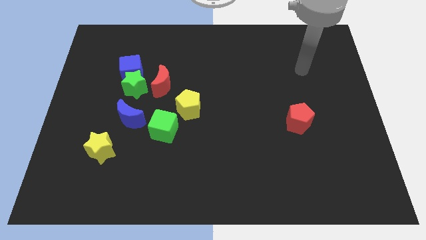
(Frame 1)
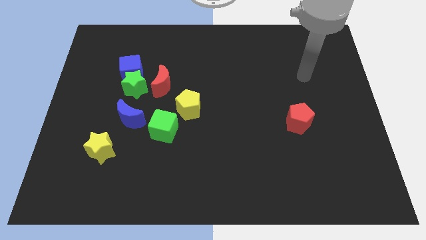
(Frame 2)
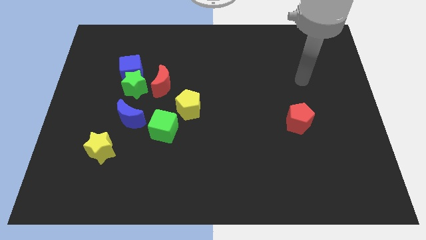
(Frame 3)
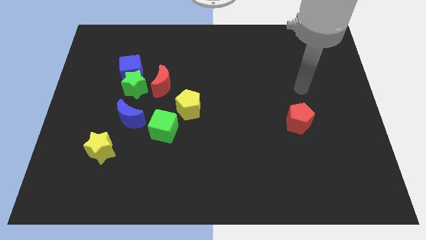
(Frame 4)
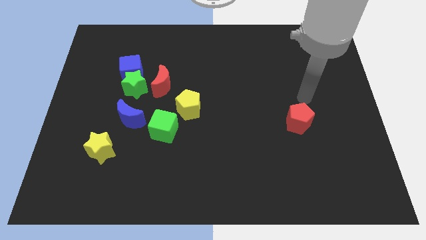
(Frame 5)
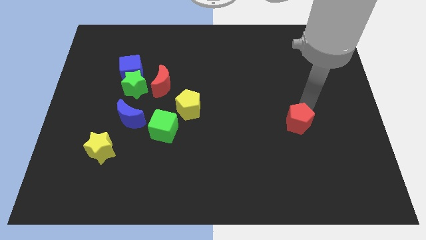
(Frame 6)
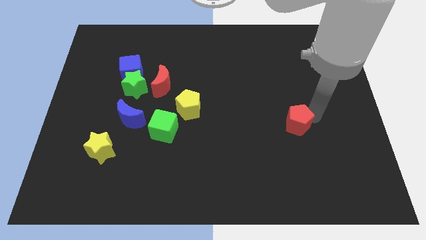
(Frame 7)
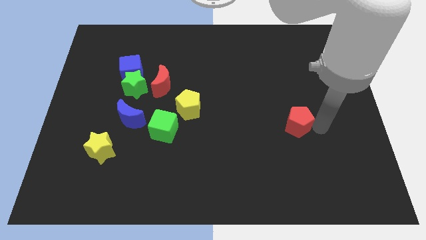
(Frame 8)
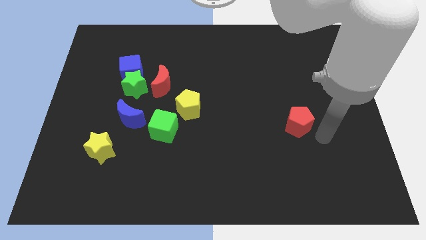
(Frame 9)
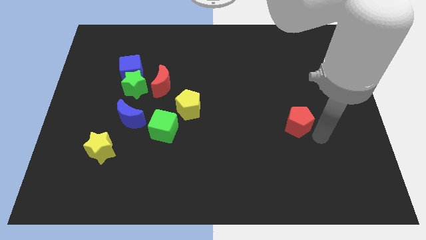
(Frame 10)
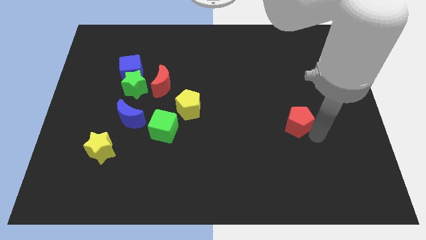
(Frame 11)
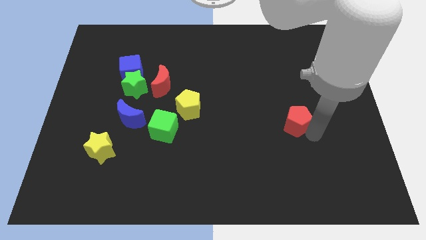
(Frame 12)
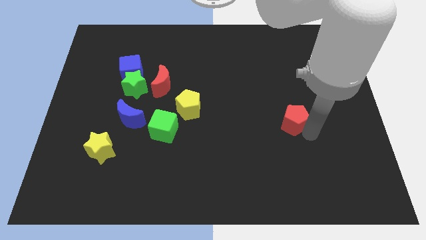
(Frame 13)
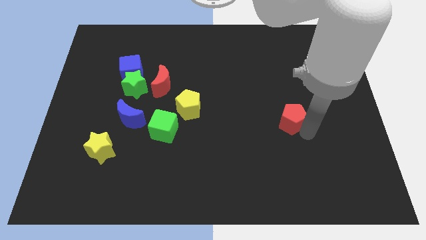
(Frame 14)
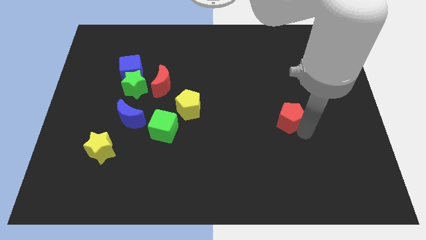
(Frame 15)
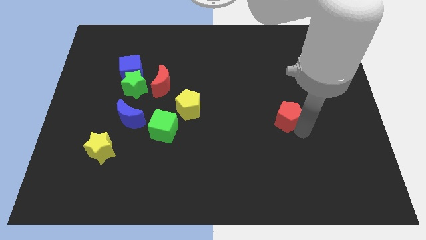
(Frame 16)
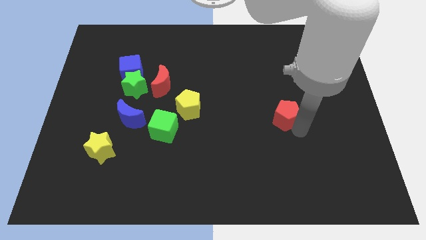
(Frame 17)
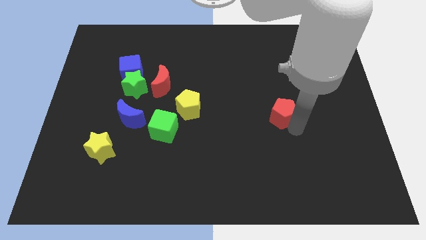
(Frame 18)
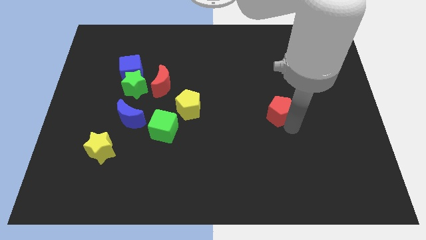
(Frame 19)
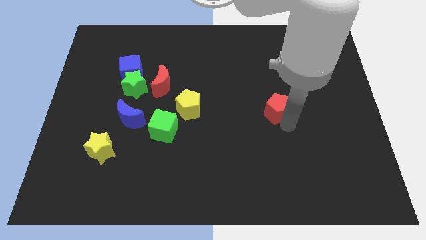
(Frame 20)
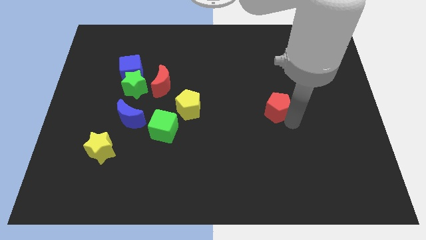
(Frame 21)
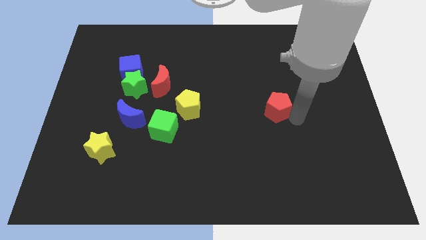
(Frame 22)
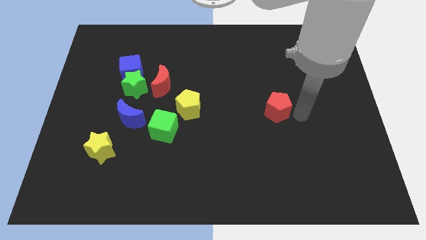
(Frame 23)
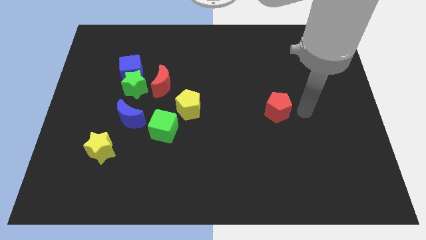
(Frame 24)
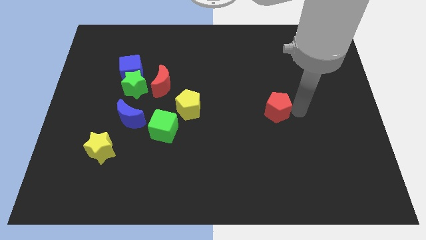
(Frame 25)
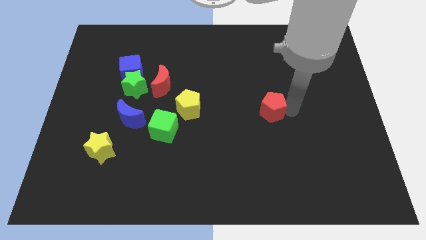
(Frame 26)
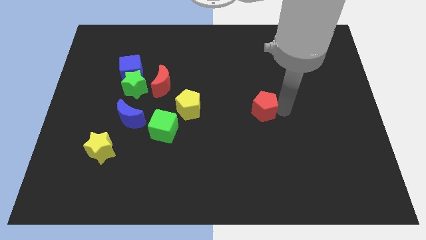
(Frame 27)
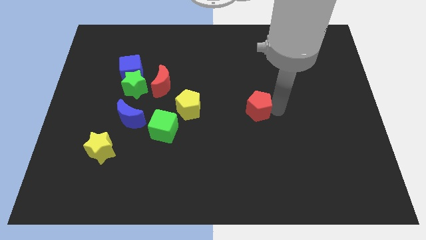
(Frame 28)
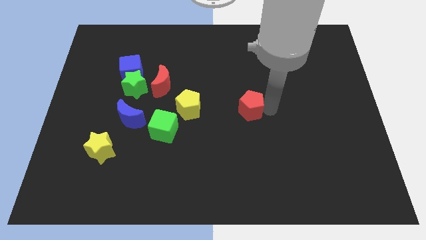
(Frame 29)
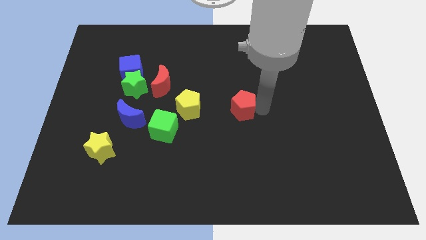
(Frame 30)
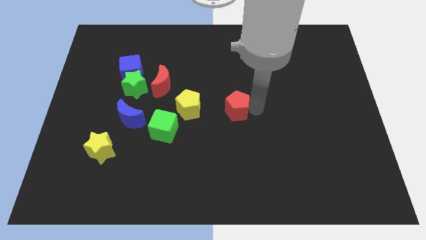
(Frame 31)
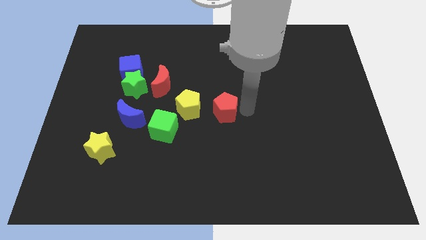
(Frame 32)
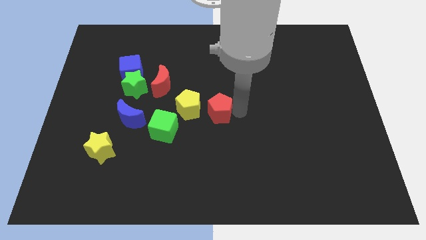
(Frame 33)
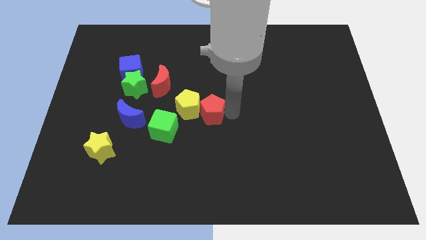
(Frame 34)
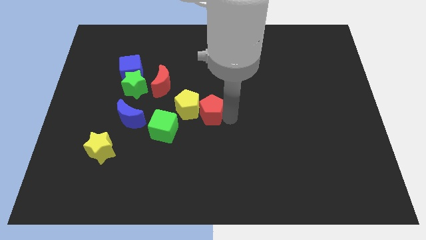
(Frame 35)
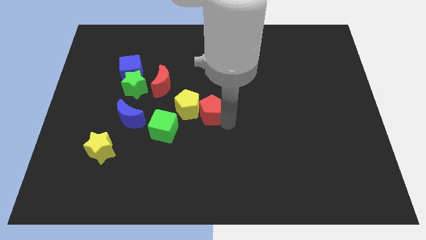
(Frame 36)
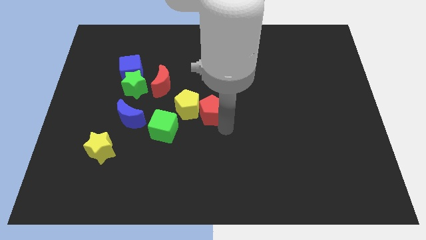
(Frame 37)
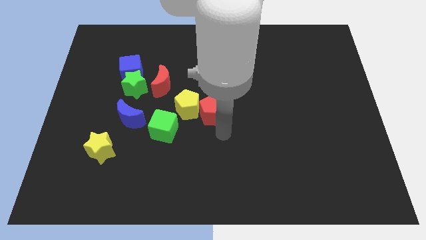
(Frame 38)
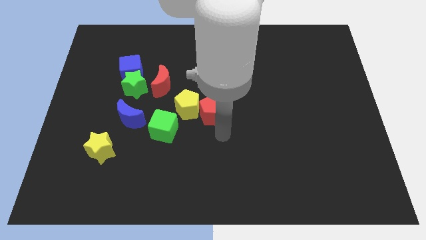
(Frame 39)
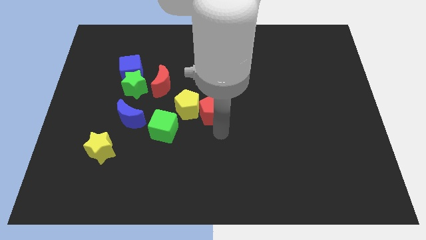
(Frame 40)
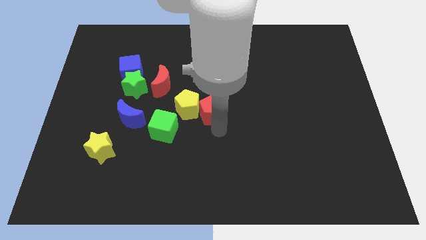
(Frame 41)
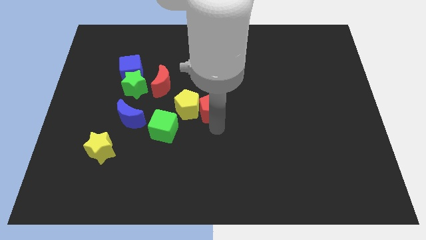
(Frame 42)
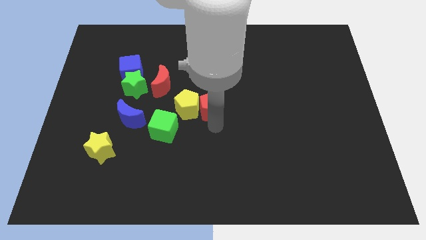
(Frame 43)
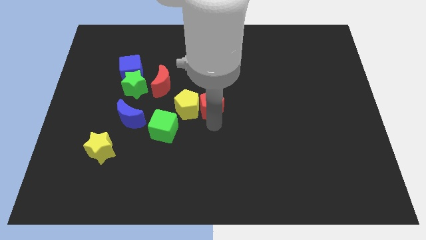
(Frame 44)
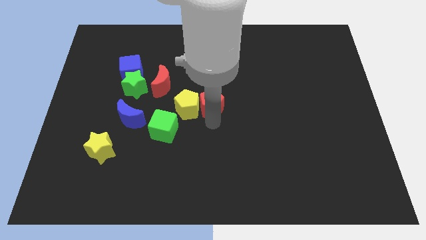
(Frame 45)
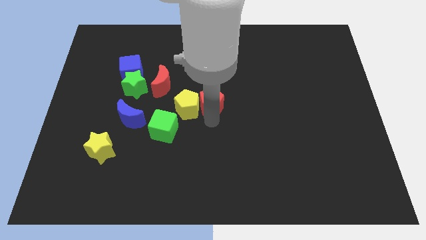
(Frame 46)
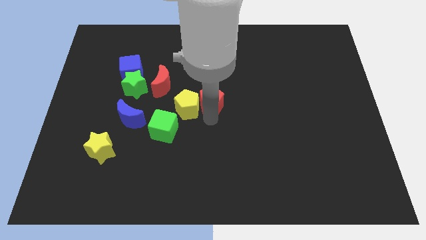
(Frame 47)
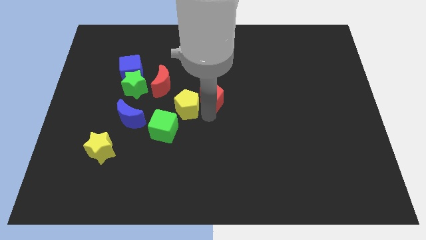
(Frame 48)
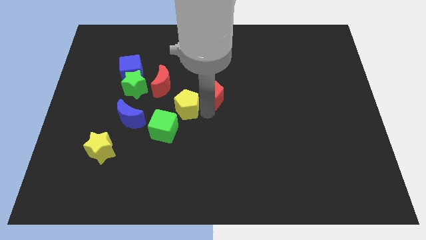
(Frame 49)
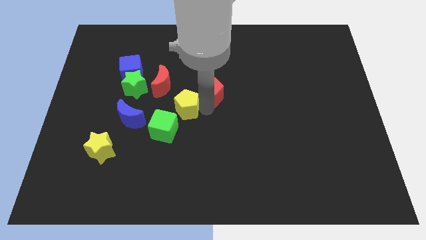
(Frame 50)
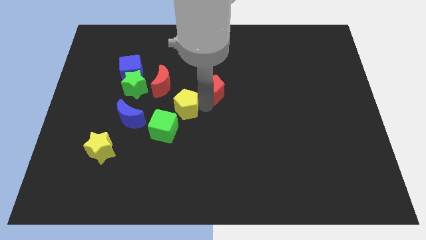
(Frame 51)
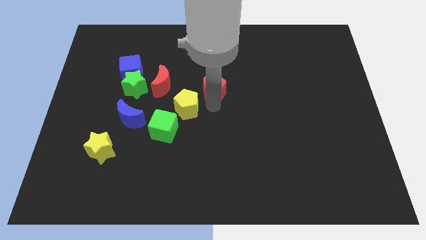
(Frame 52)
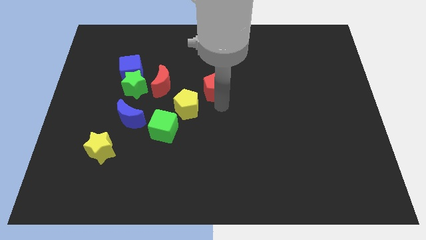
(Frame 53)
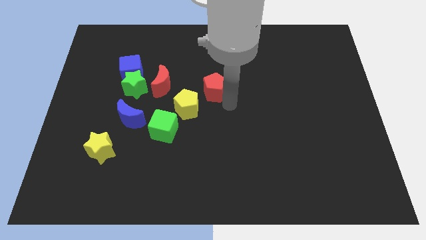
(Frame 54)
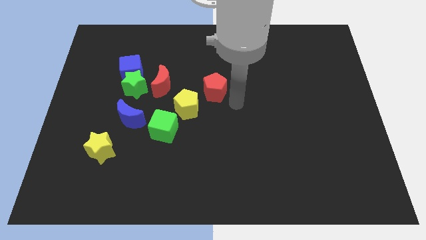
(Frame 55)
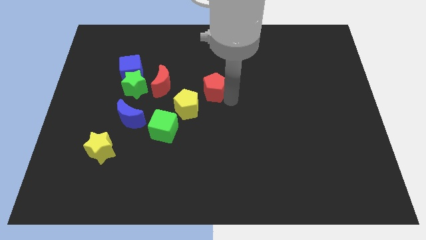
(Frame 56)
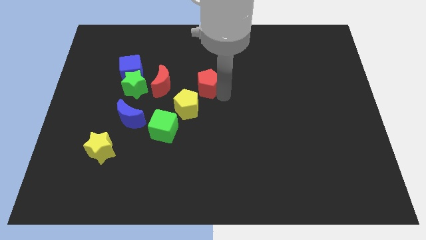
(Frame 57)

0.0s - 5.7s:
push the red pentagon above the yellow pentagon

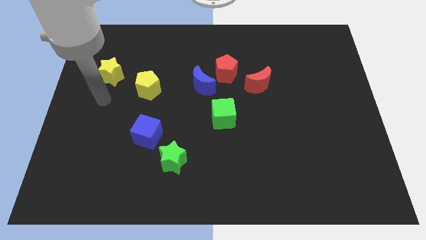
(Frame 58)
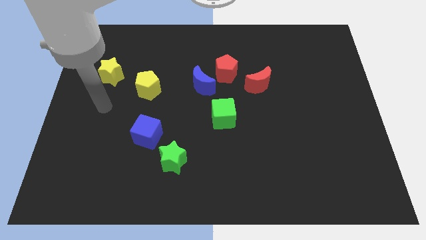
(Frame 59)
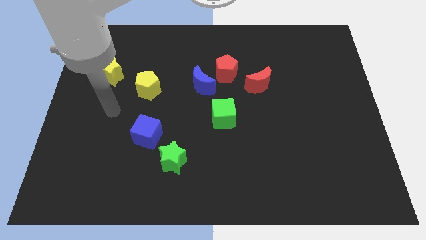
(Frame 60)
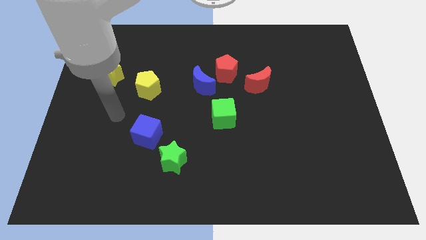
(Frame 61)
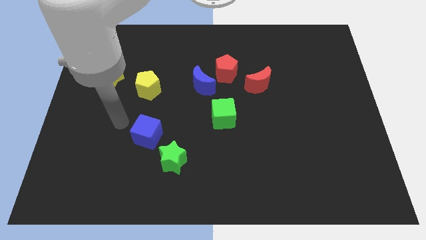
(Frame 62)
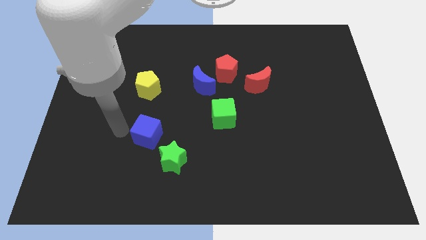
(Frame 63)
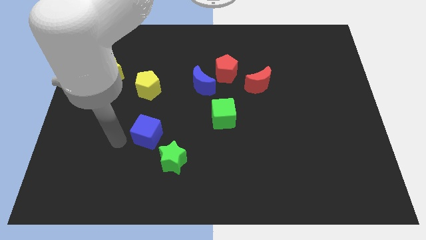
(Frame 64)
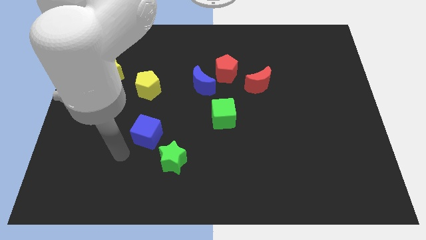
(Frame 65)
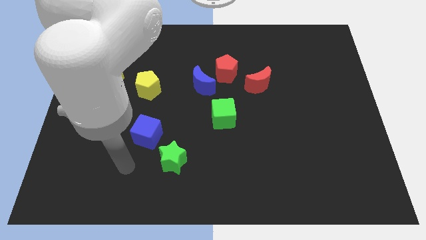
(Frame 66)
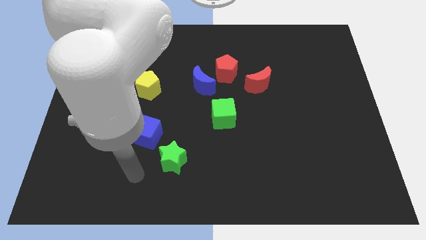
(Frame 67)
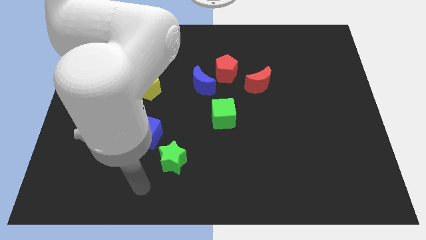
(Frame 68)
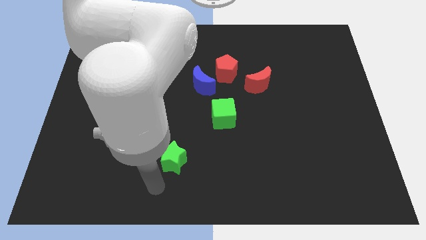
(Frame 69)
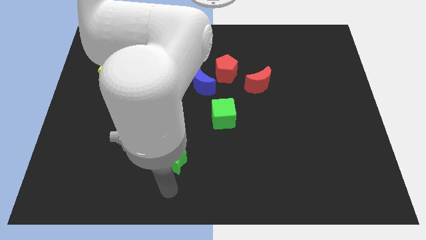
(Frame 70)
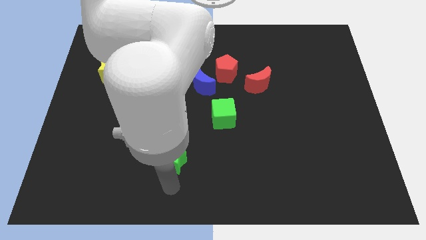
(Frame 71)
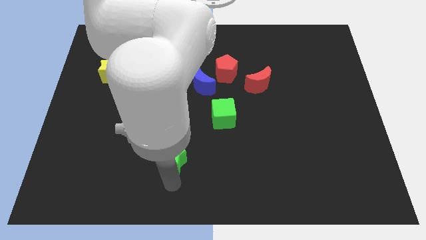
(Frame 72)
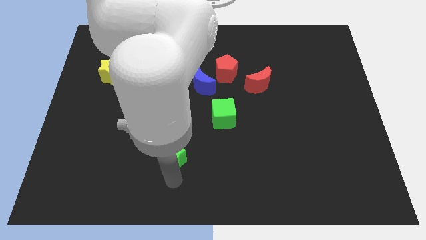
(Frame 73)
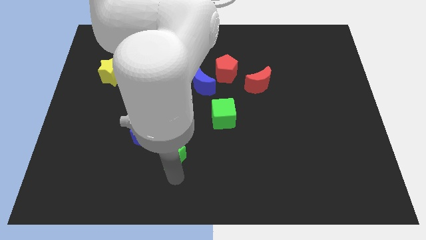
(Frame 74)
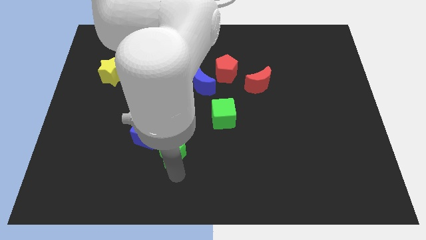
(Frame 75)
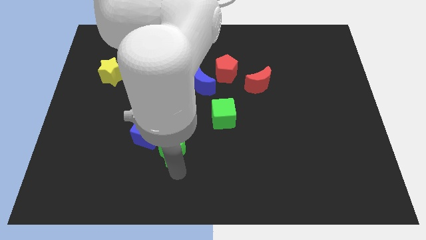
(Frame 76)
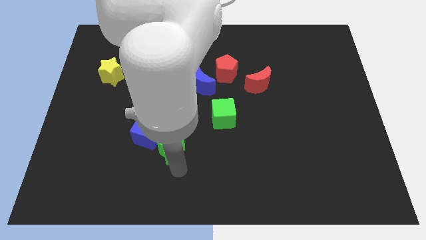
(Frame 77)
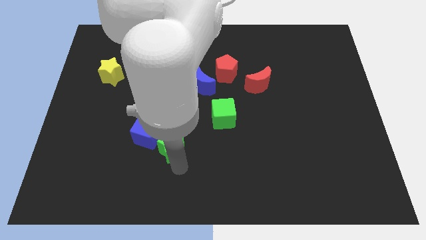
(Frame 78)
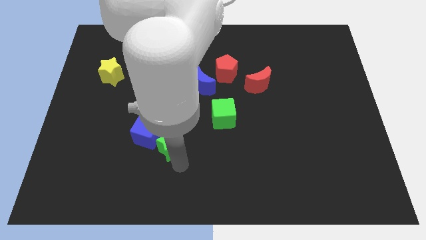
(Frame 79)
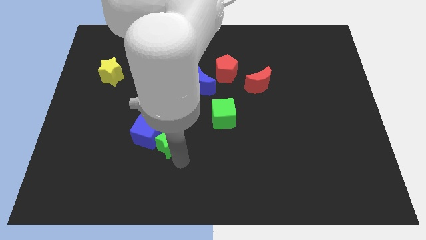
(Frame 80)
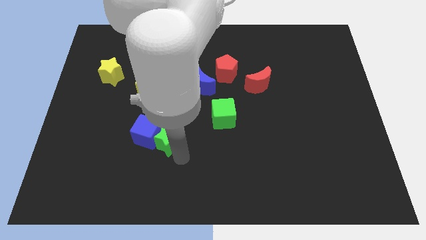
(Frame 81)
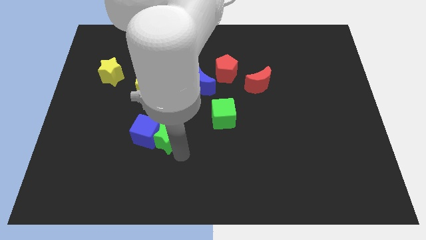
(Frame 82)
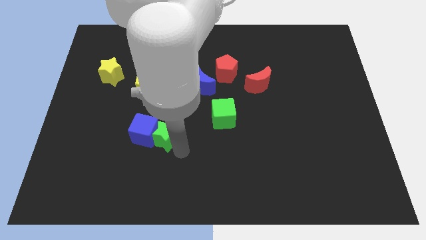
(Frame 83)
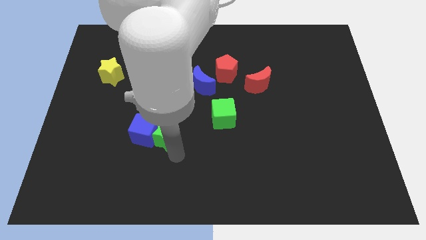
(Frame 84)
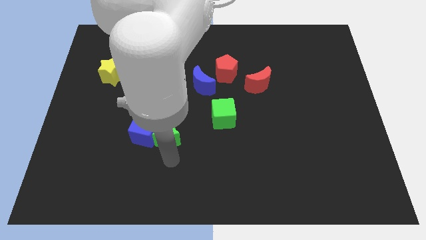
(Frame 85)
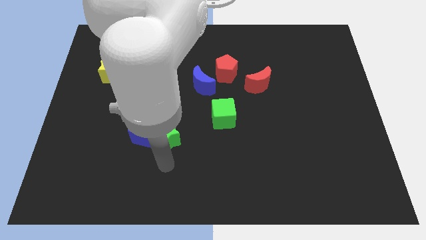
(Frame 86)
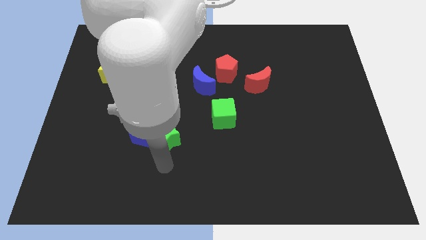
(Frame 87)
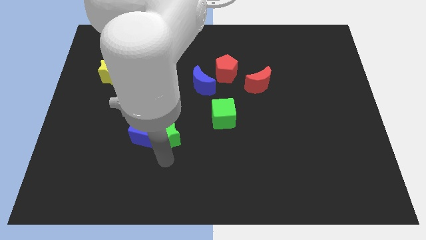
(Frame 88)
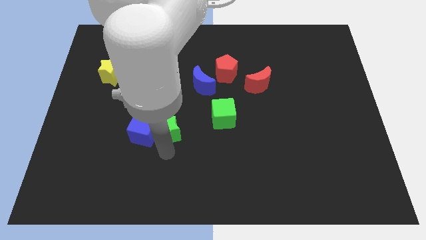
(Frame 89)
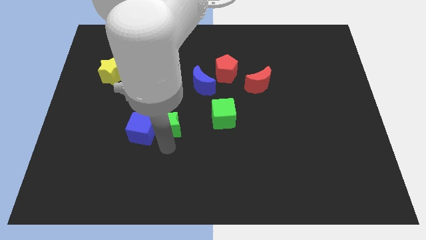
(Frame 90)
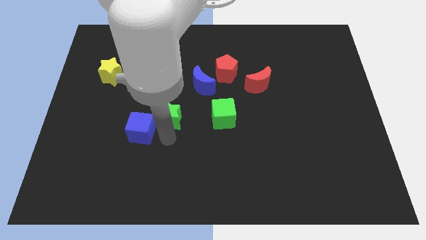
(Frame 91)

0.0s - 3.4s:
push the green star to the bottom left side of the blue moon
